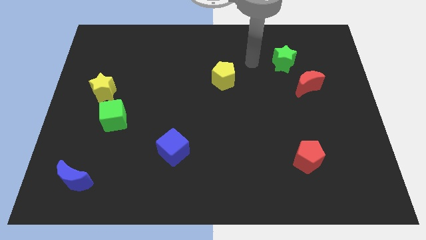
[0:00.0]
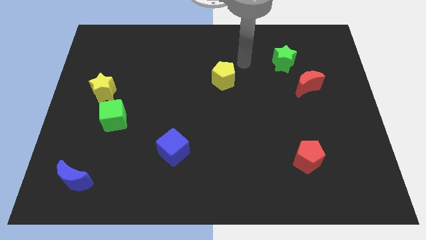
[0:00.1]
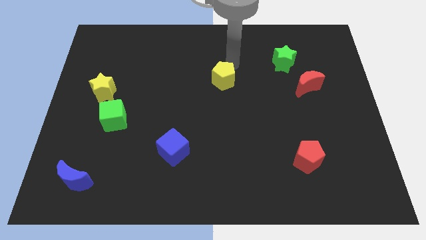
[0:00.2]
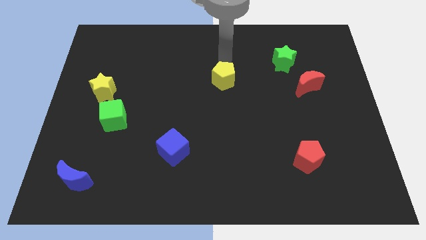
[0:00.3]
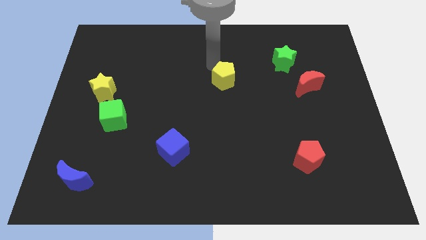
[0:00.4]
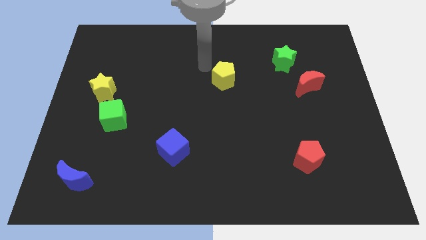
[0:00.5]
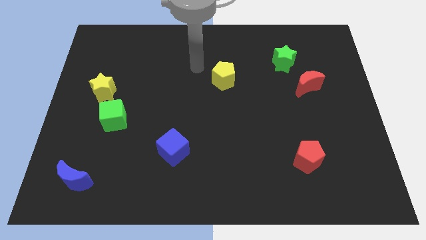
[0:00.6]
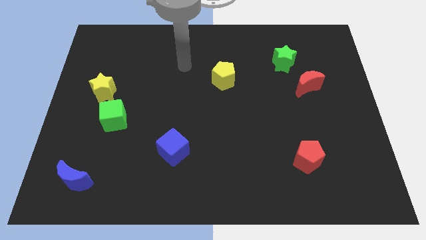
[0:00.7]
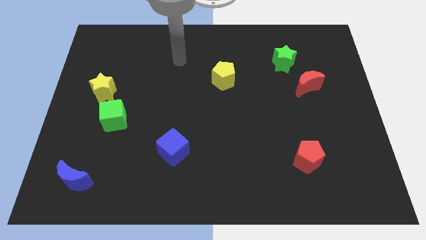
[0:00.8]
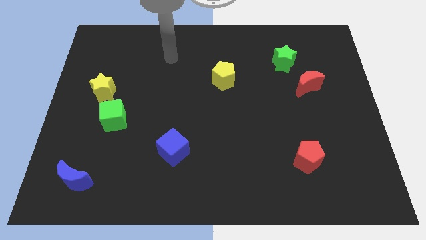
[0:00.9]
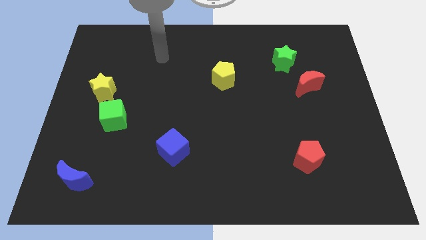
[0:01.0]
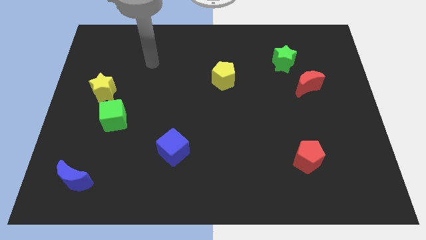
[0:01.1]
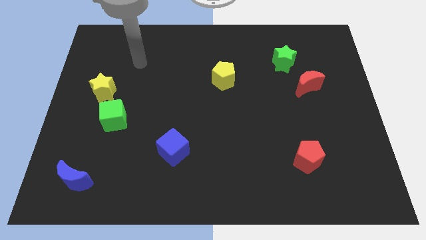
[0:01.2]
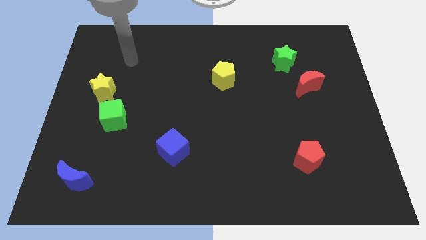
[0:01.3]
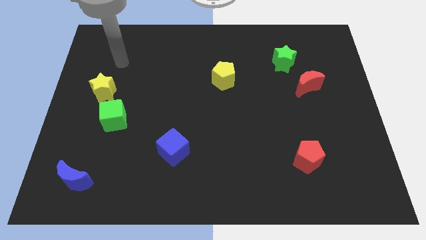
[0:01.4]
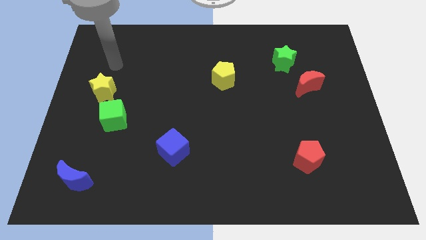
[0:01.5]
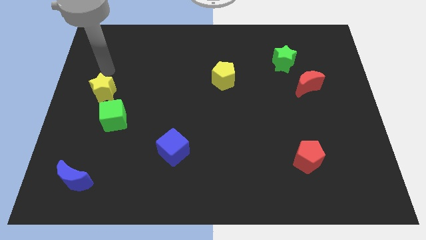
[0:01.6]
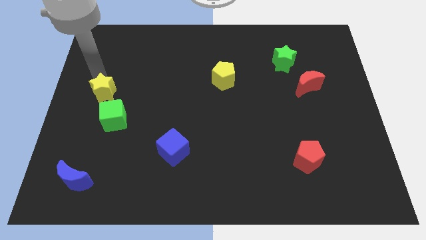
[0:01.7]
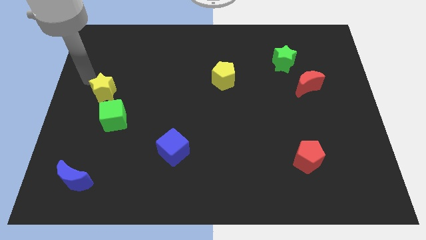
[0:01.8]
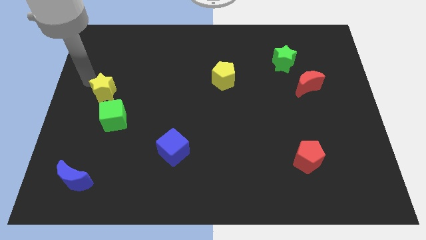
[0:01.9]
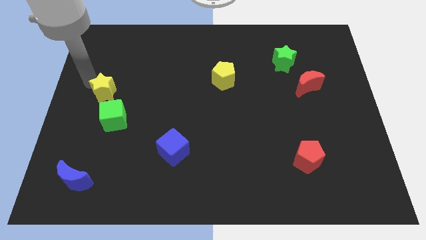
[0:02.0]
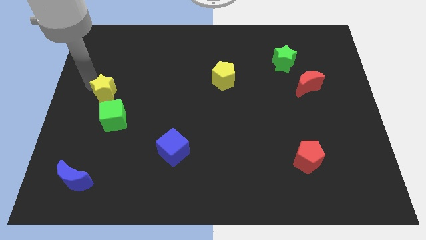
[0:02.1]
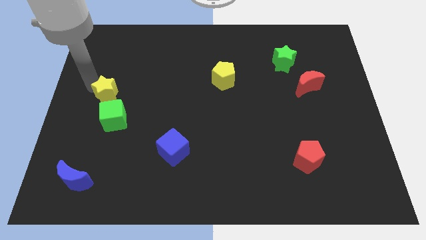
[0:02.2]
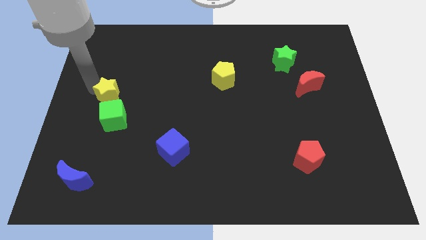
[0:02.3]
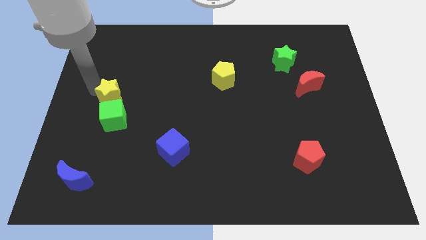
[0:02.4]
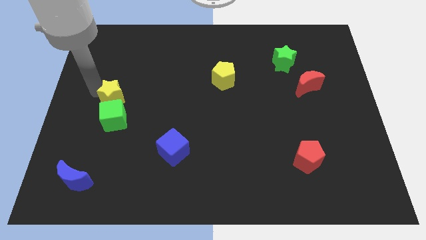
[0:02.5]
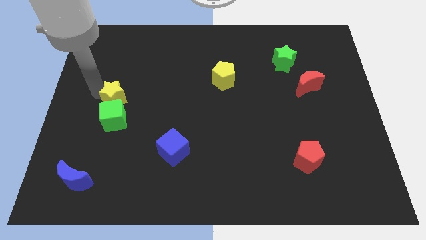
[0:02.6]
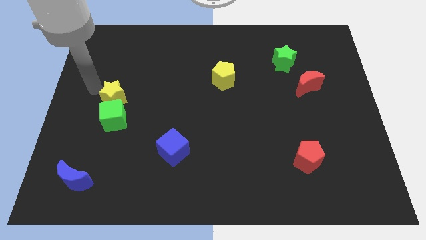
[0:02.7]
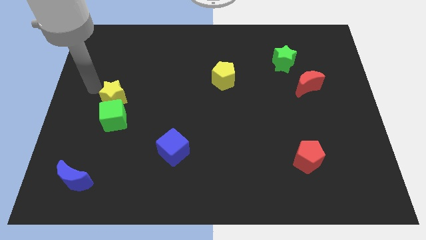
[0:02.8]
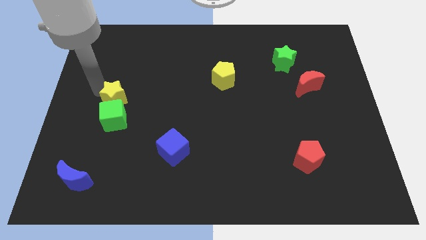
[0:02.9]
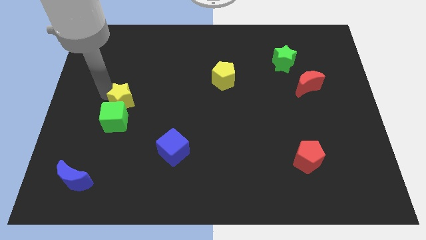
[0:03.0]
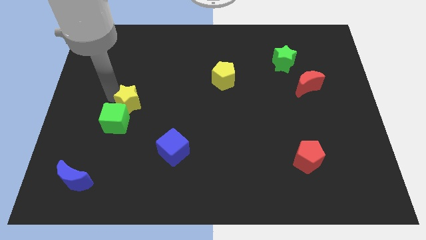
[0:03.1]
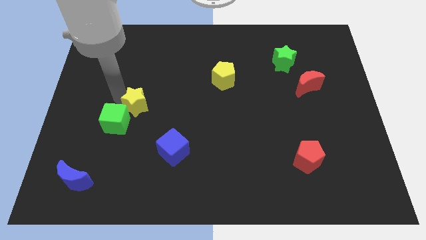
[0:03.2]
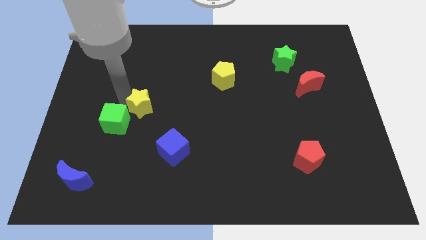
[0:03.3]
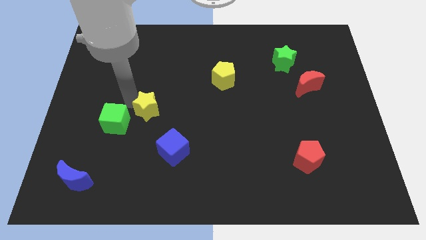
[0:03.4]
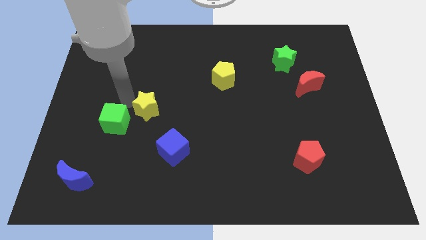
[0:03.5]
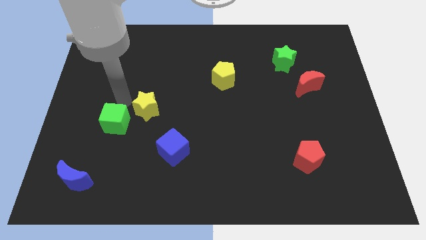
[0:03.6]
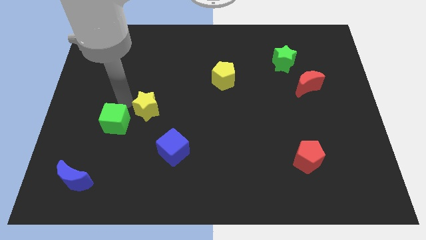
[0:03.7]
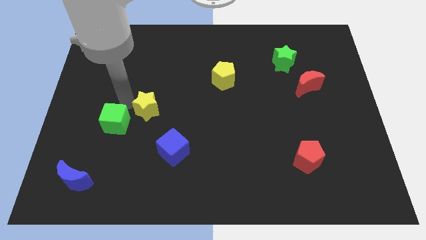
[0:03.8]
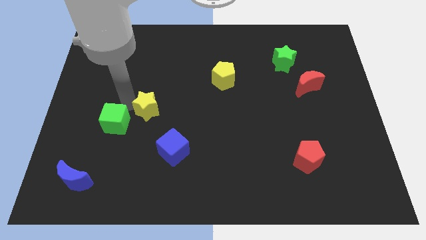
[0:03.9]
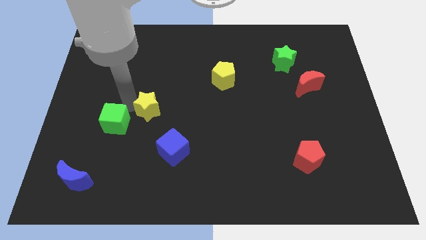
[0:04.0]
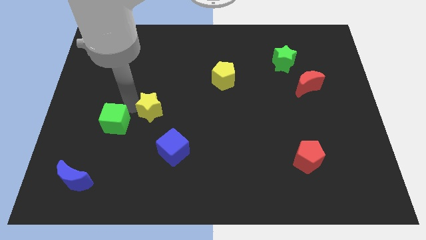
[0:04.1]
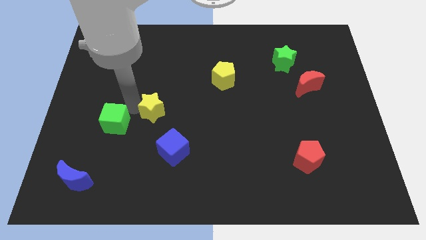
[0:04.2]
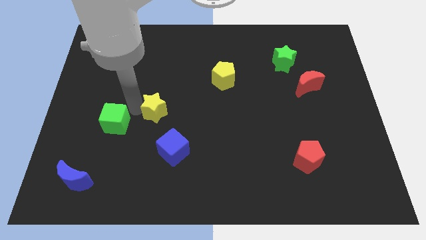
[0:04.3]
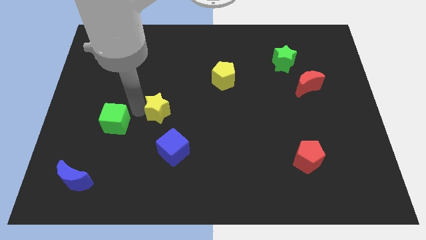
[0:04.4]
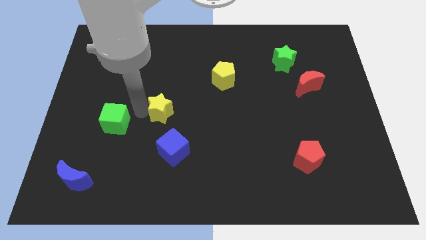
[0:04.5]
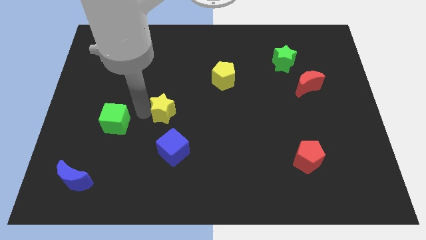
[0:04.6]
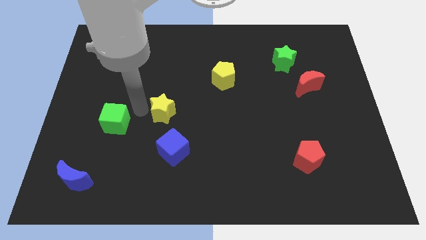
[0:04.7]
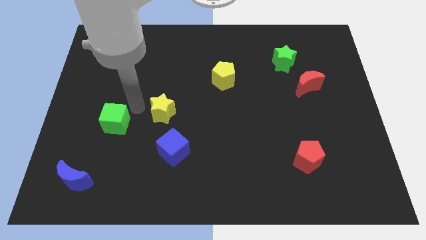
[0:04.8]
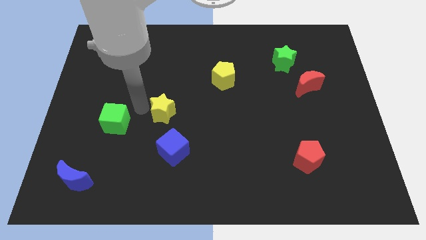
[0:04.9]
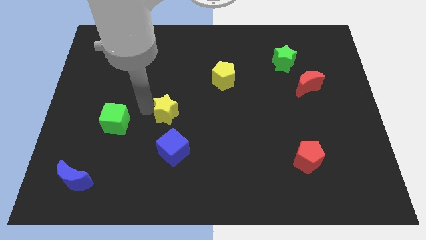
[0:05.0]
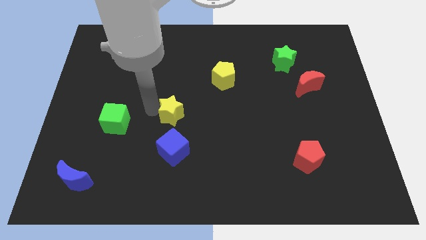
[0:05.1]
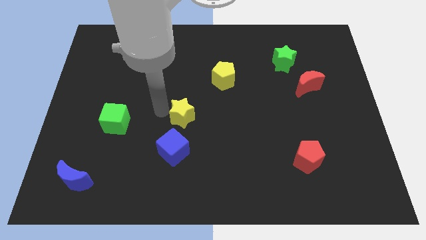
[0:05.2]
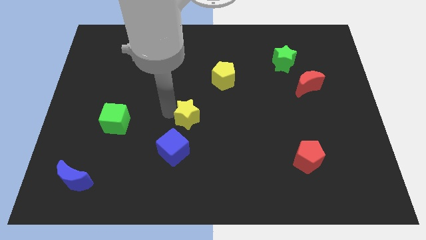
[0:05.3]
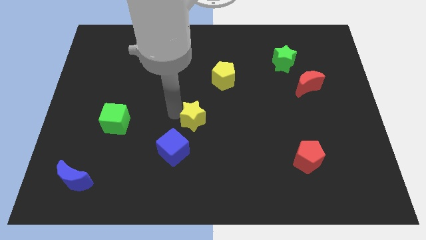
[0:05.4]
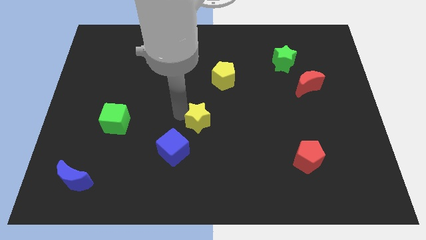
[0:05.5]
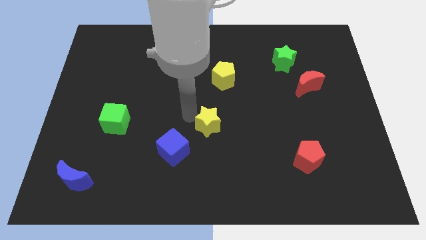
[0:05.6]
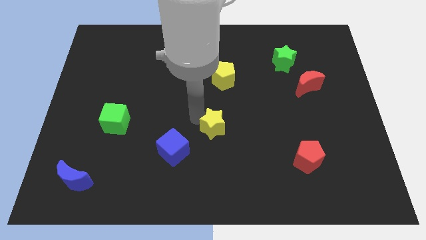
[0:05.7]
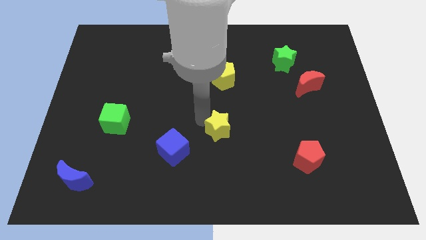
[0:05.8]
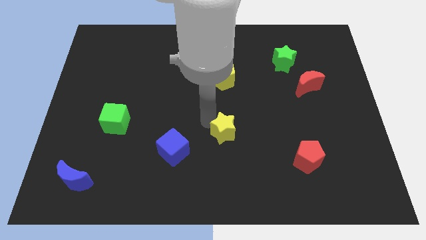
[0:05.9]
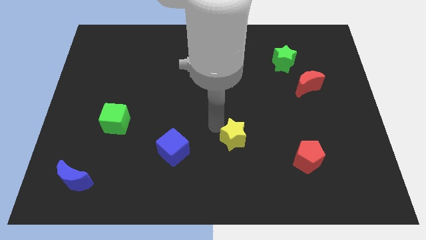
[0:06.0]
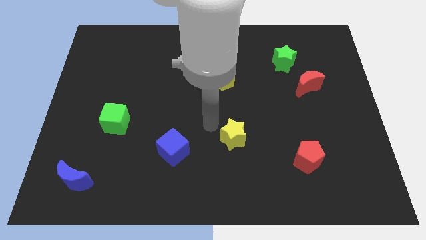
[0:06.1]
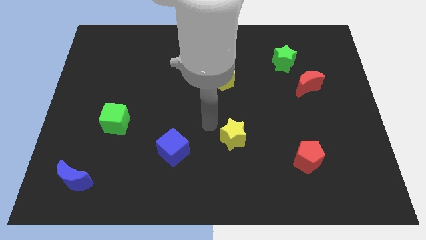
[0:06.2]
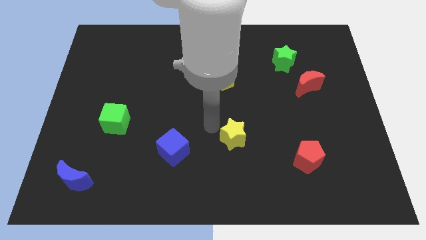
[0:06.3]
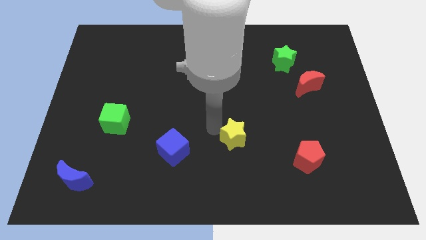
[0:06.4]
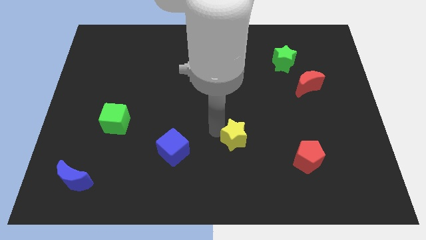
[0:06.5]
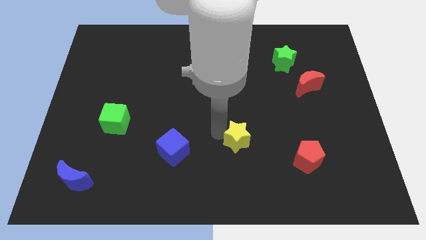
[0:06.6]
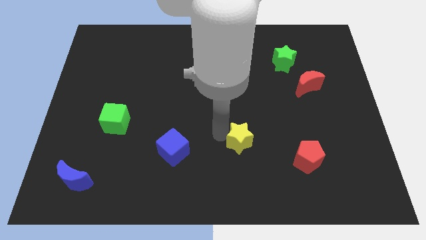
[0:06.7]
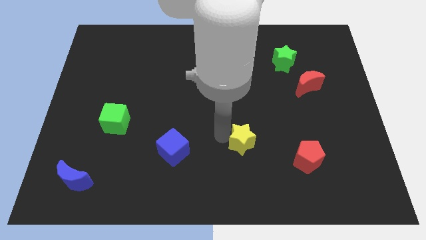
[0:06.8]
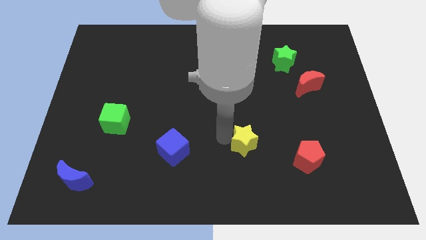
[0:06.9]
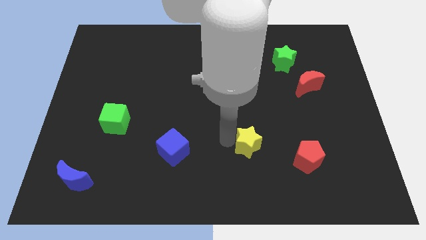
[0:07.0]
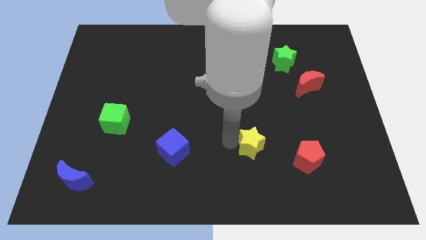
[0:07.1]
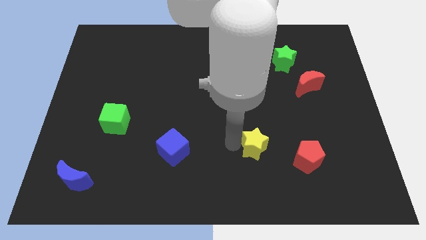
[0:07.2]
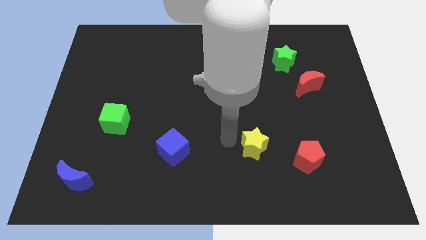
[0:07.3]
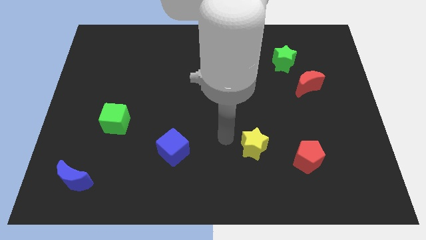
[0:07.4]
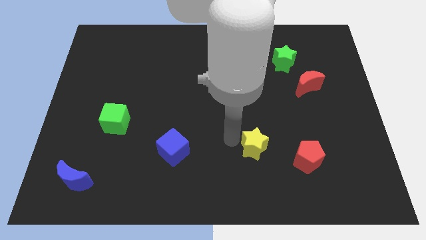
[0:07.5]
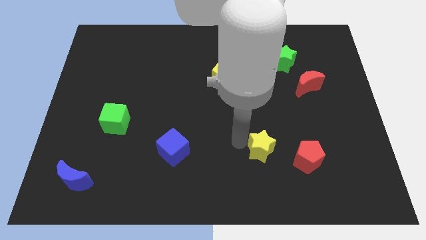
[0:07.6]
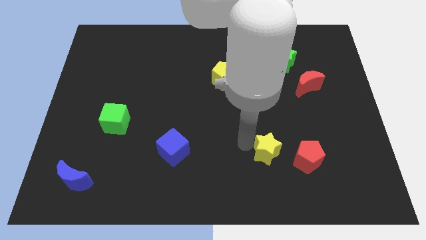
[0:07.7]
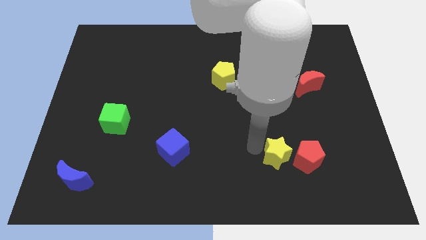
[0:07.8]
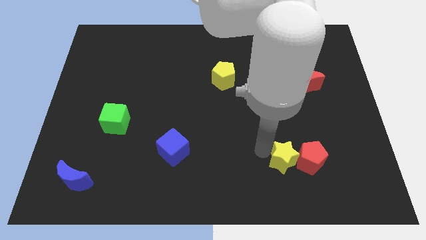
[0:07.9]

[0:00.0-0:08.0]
put the yellow star towards the red pentagon
